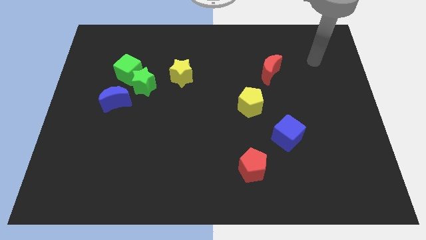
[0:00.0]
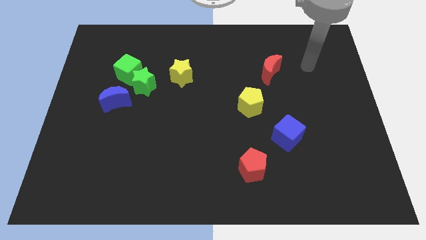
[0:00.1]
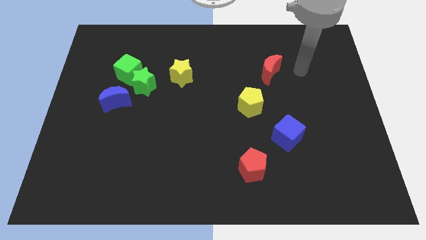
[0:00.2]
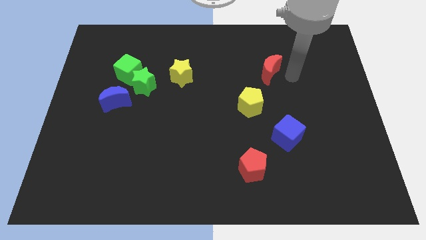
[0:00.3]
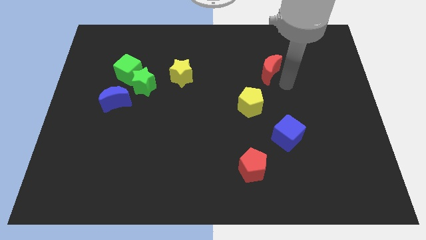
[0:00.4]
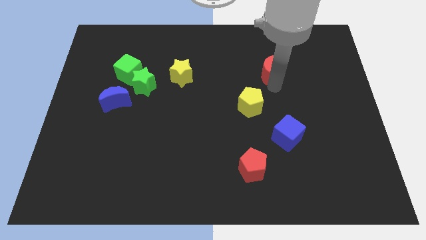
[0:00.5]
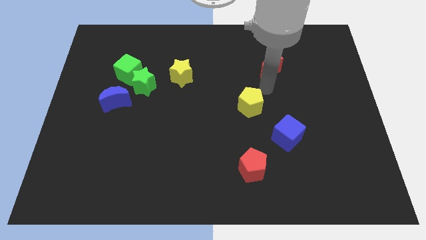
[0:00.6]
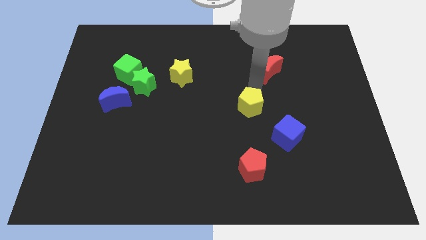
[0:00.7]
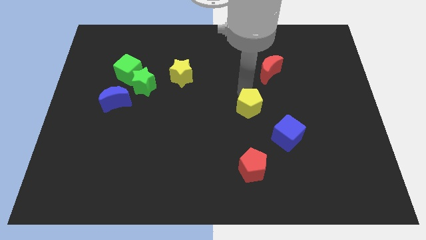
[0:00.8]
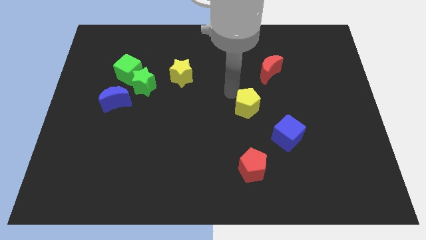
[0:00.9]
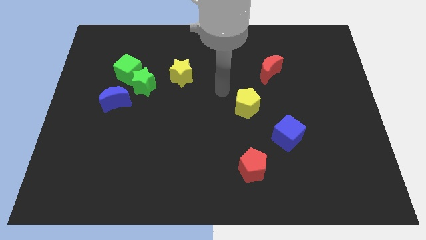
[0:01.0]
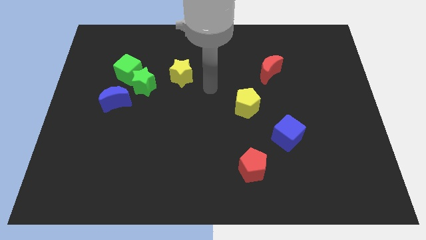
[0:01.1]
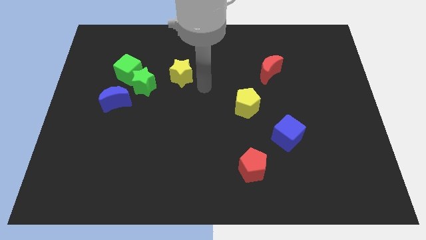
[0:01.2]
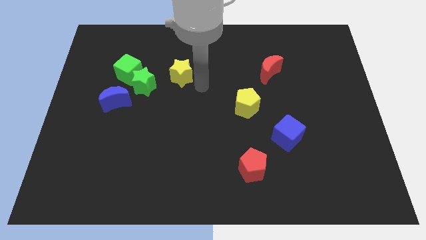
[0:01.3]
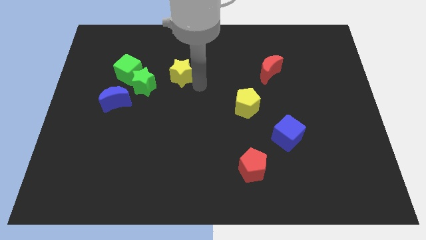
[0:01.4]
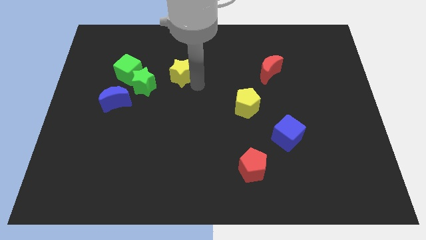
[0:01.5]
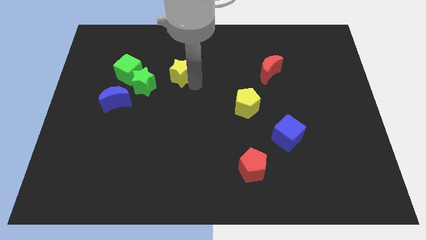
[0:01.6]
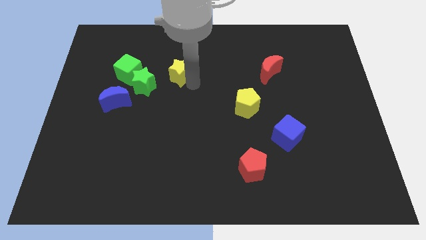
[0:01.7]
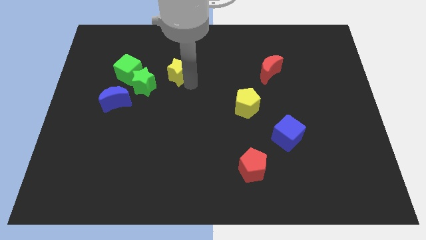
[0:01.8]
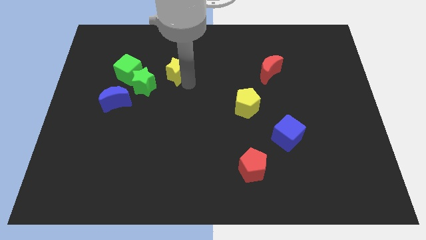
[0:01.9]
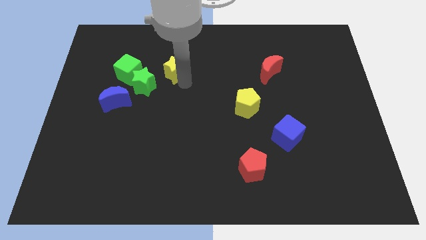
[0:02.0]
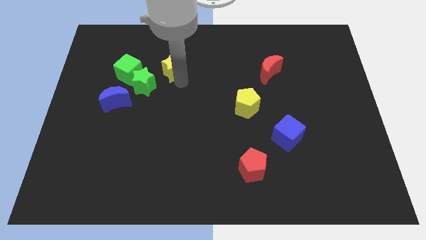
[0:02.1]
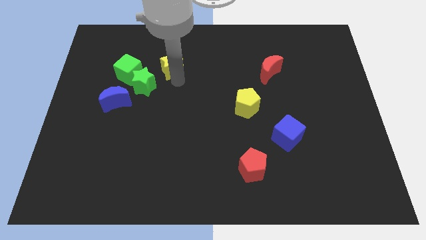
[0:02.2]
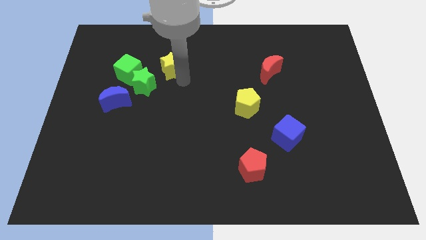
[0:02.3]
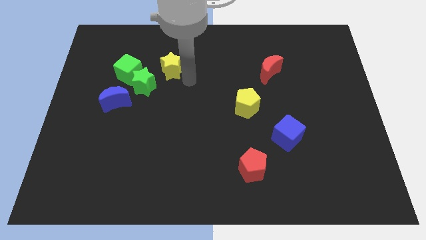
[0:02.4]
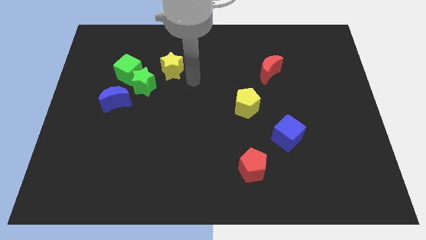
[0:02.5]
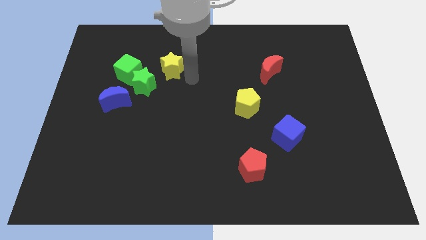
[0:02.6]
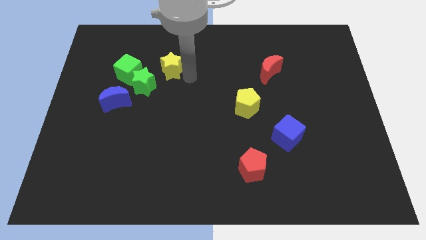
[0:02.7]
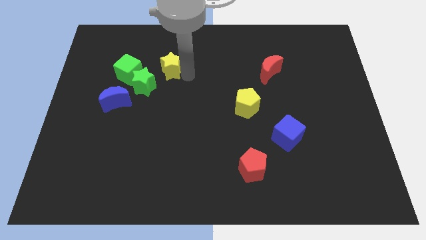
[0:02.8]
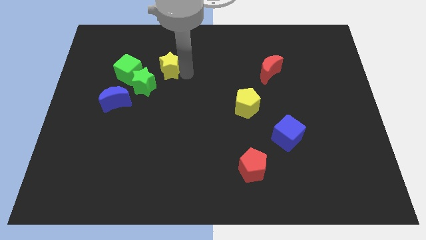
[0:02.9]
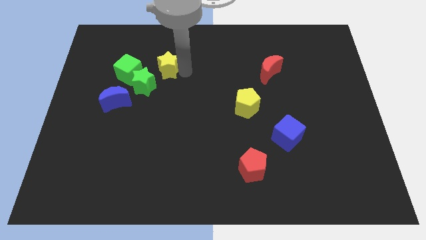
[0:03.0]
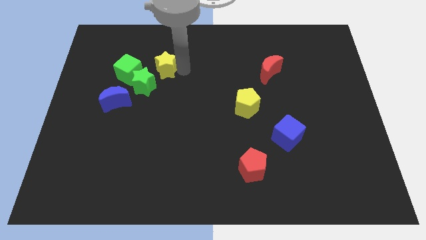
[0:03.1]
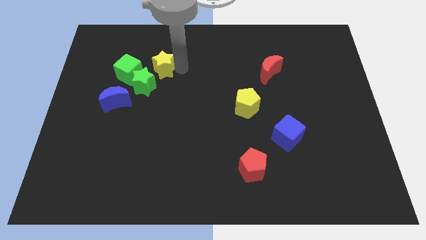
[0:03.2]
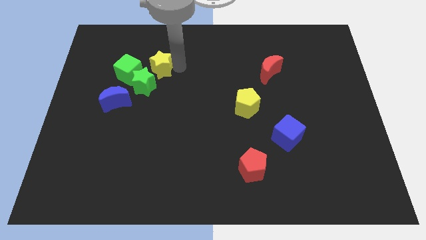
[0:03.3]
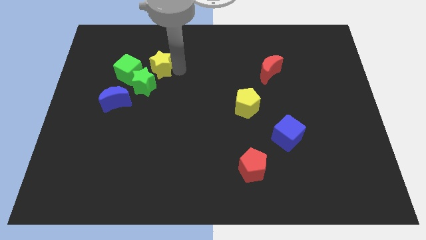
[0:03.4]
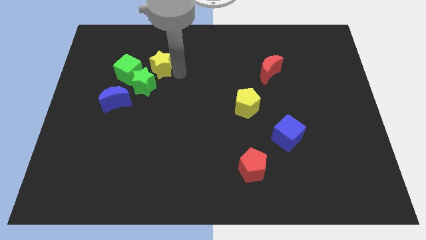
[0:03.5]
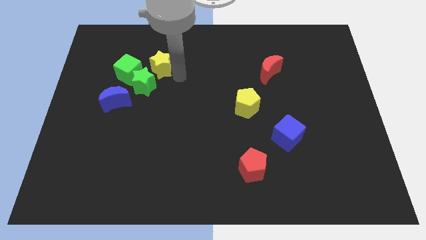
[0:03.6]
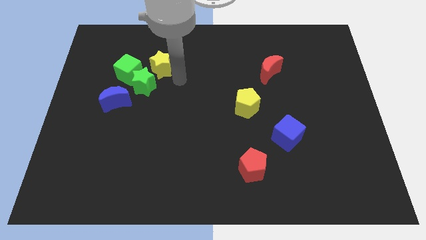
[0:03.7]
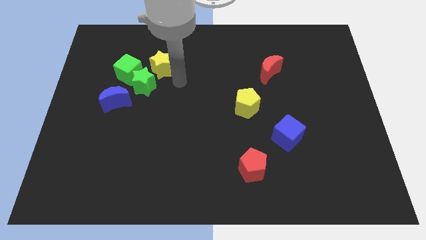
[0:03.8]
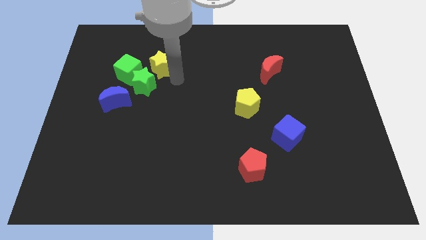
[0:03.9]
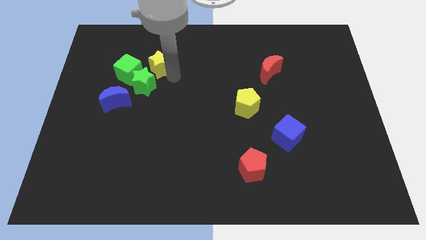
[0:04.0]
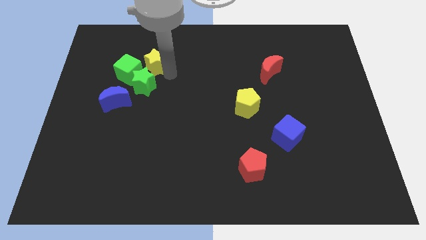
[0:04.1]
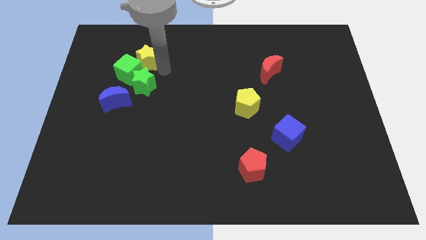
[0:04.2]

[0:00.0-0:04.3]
slightly slide the yellow star left

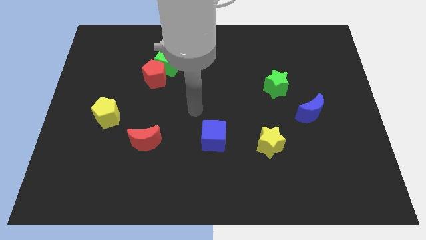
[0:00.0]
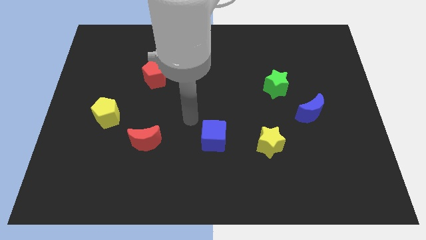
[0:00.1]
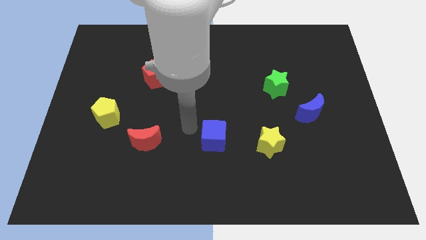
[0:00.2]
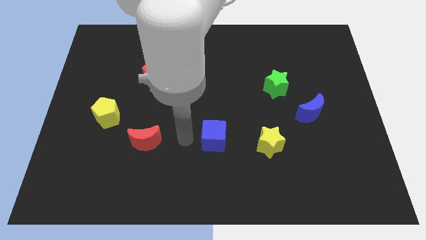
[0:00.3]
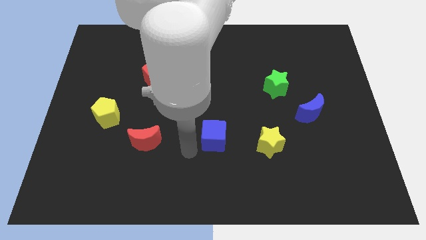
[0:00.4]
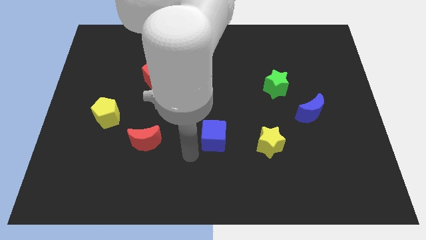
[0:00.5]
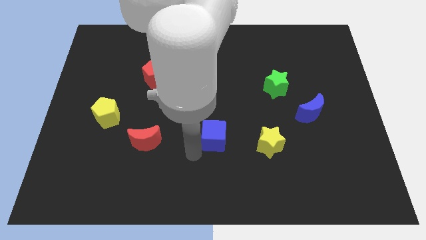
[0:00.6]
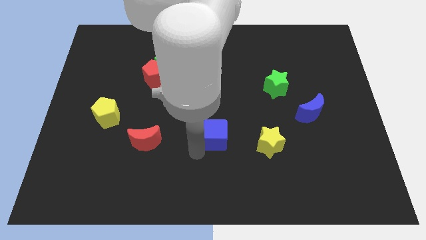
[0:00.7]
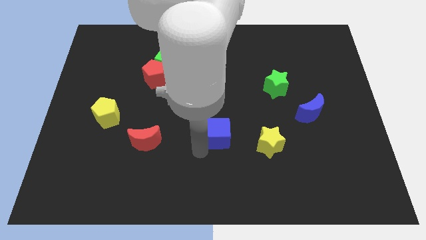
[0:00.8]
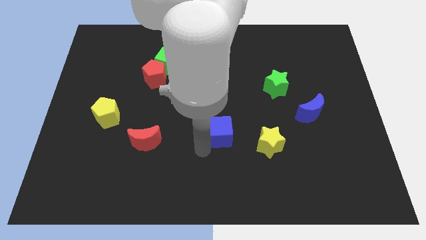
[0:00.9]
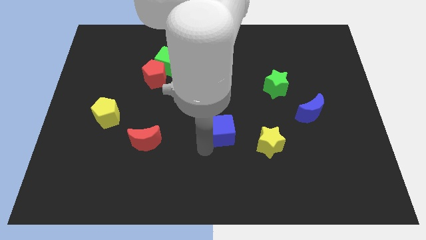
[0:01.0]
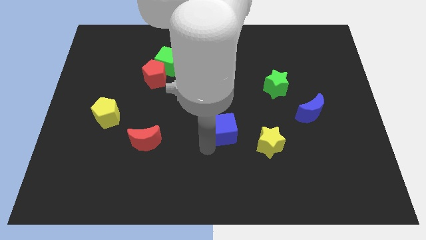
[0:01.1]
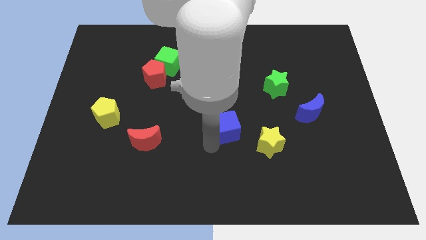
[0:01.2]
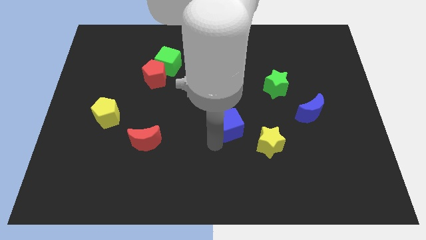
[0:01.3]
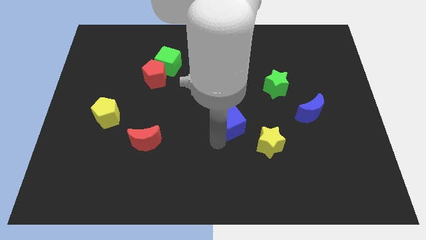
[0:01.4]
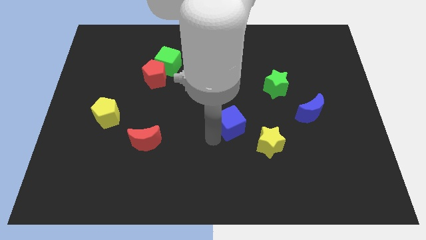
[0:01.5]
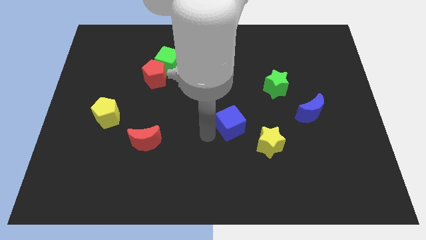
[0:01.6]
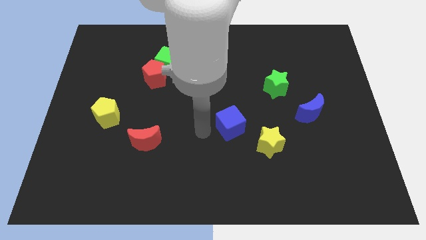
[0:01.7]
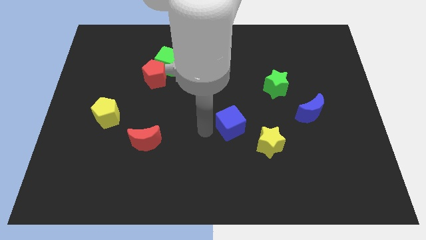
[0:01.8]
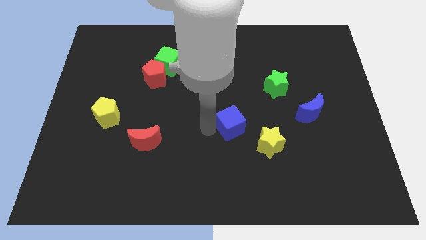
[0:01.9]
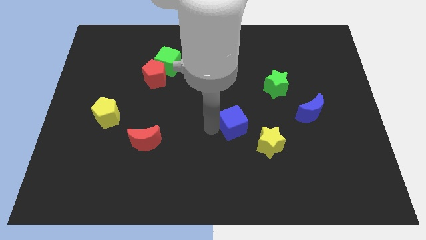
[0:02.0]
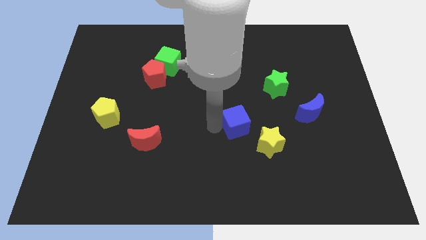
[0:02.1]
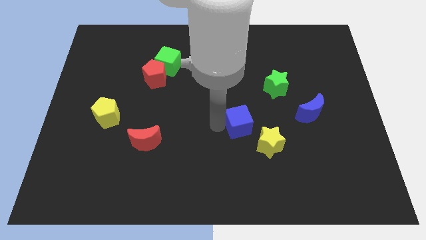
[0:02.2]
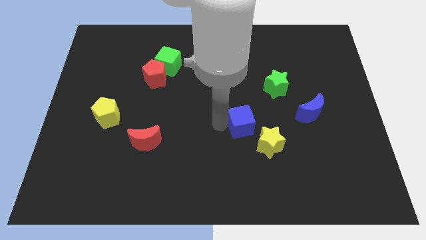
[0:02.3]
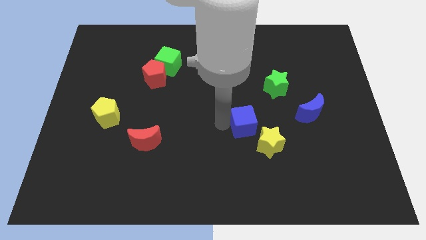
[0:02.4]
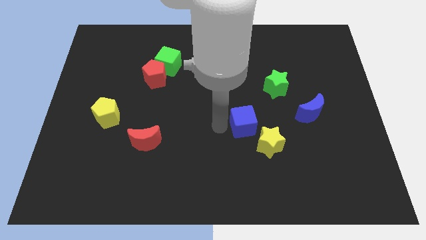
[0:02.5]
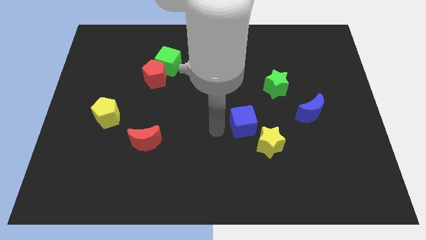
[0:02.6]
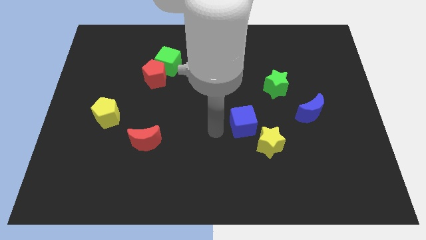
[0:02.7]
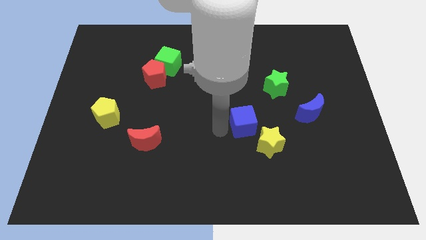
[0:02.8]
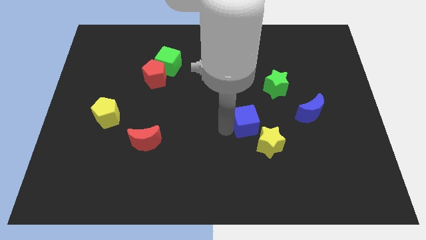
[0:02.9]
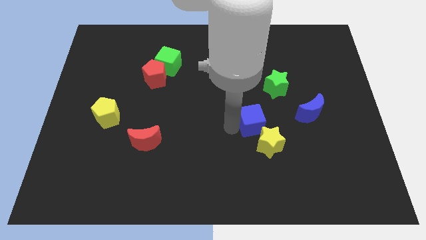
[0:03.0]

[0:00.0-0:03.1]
move the blue cube right a bit

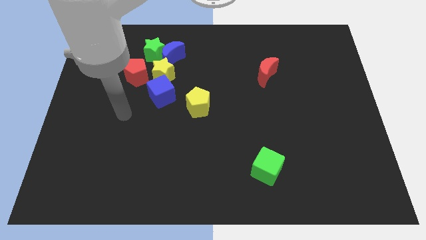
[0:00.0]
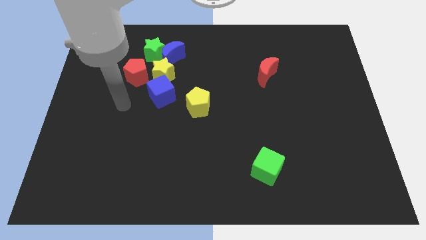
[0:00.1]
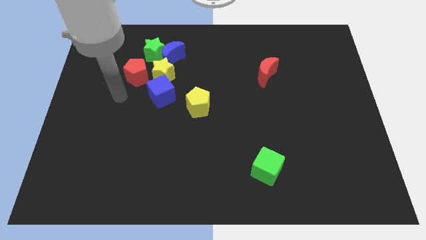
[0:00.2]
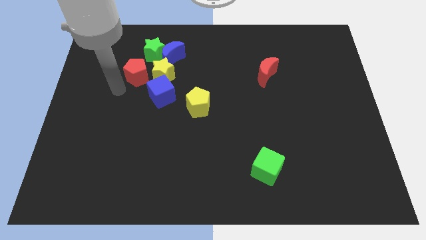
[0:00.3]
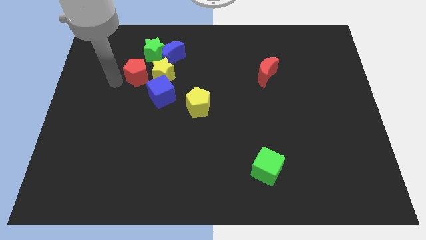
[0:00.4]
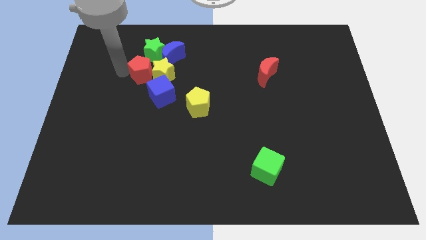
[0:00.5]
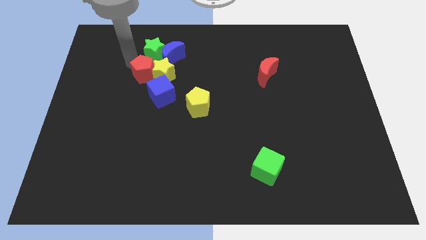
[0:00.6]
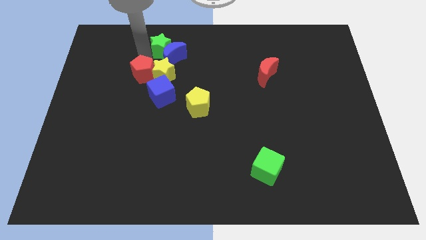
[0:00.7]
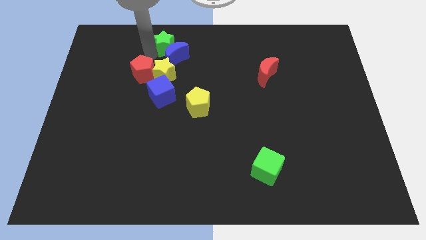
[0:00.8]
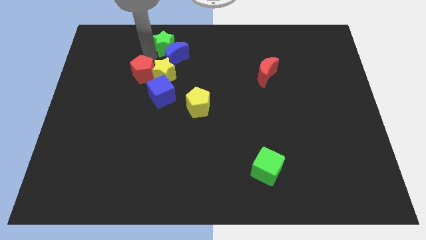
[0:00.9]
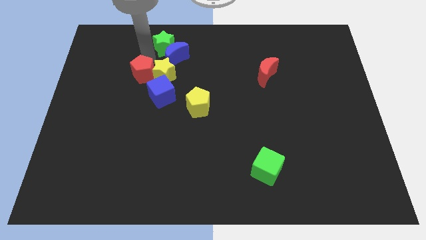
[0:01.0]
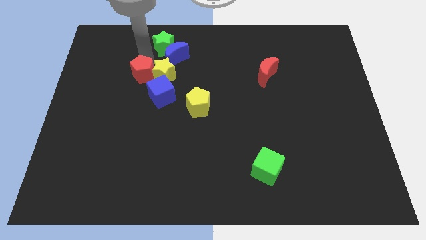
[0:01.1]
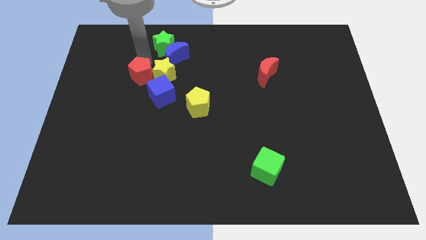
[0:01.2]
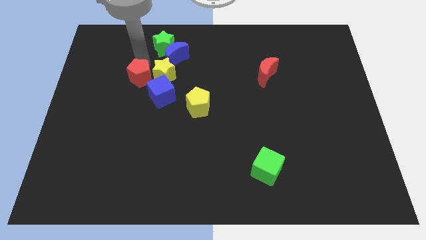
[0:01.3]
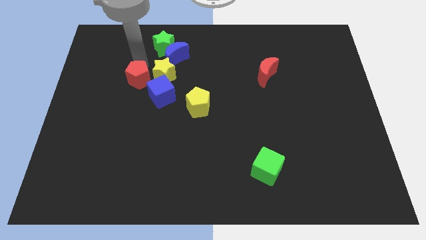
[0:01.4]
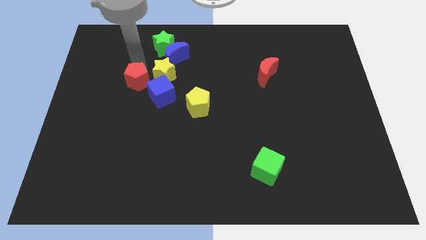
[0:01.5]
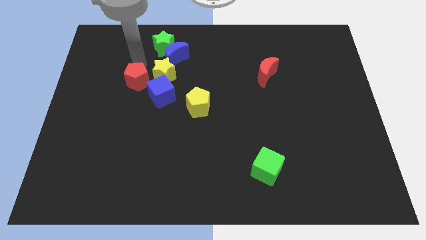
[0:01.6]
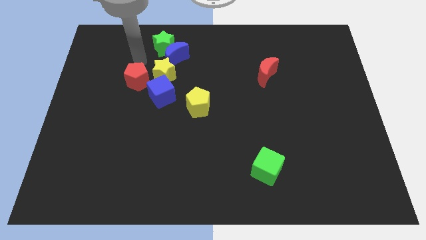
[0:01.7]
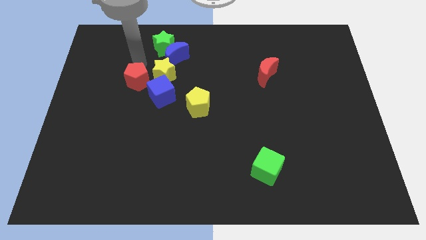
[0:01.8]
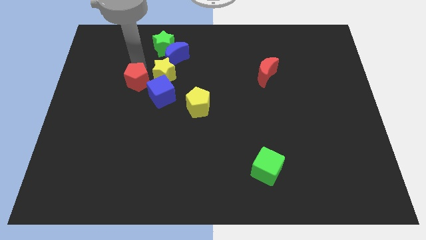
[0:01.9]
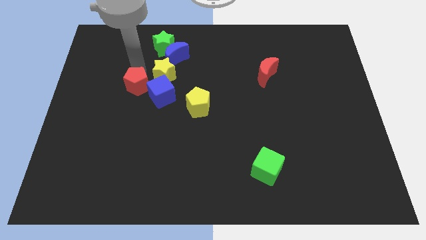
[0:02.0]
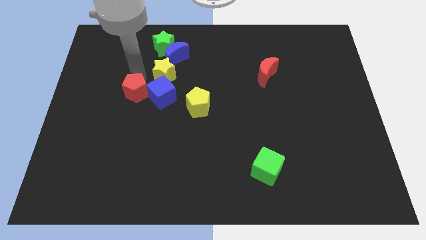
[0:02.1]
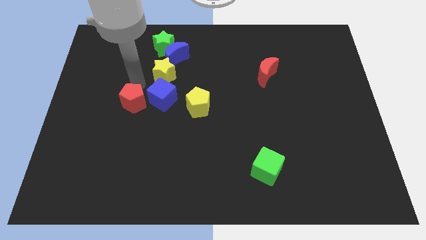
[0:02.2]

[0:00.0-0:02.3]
push the red pentagon somewhat downwards
